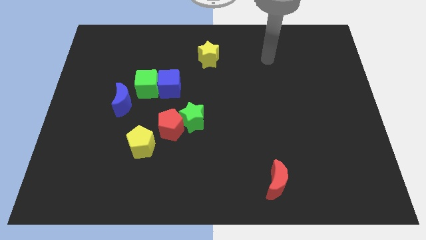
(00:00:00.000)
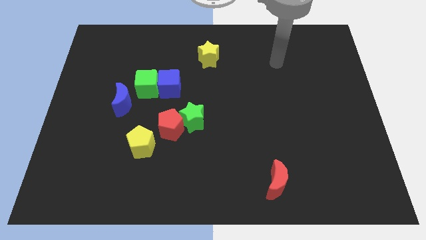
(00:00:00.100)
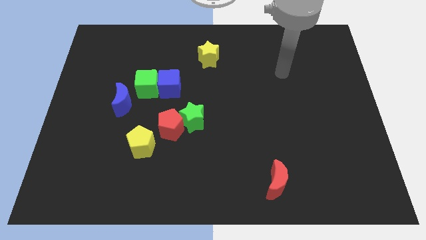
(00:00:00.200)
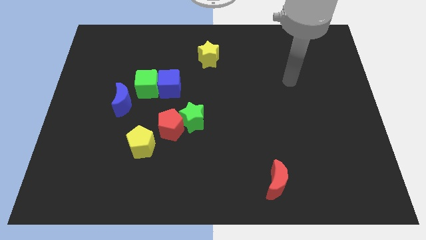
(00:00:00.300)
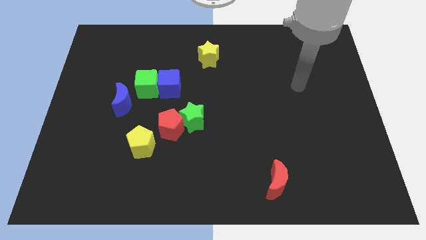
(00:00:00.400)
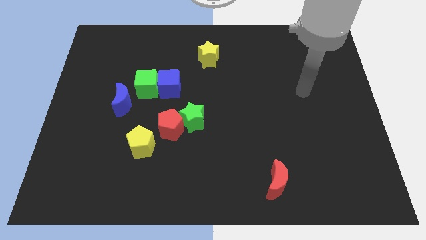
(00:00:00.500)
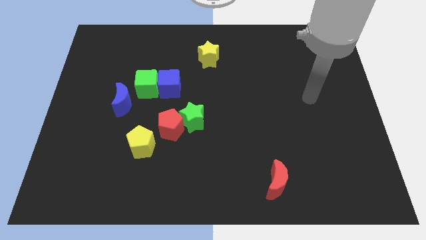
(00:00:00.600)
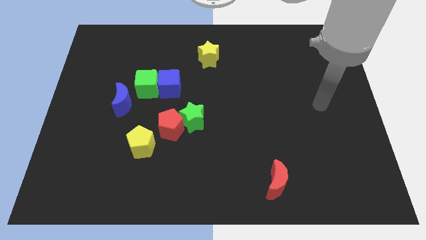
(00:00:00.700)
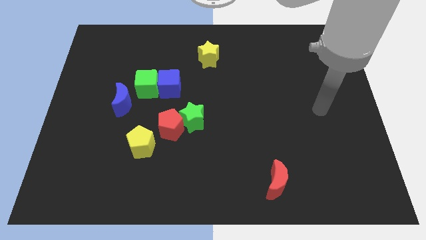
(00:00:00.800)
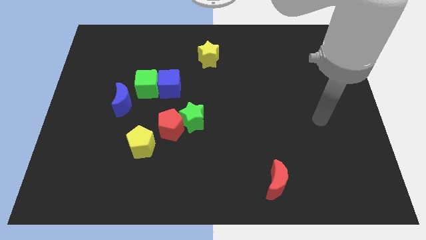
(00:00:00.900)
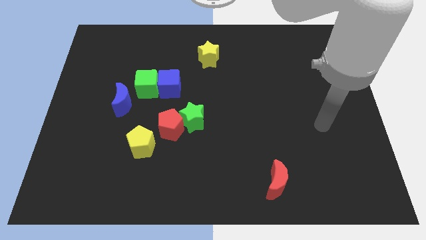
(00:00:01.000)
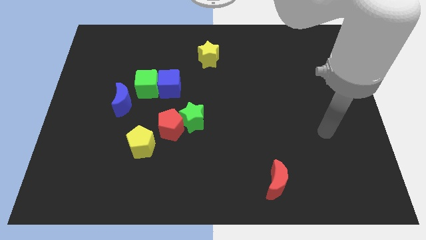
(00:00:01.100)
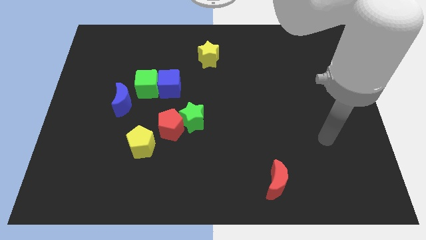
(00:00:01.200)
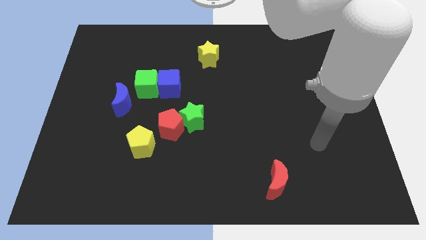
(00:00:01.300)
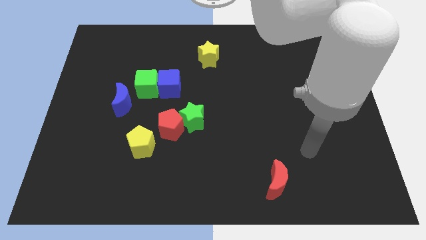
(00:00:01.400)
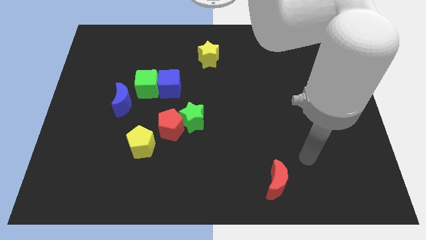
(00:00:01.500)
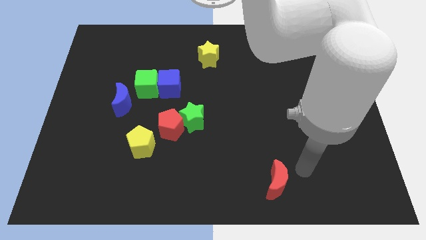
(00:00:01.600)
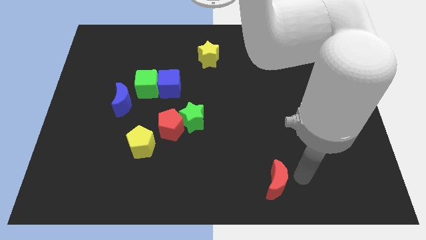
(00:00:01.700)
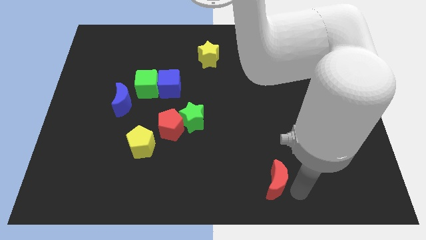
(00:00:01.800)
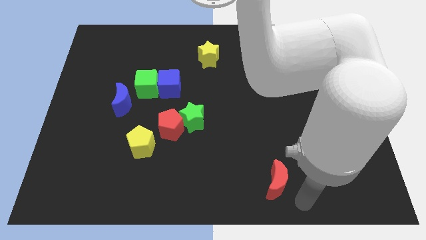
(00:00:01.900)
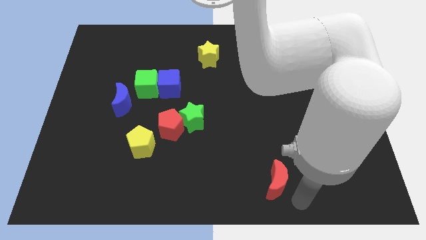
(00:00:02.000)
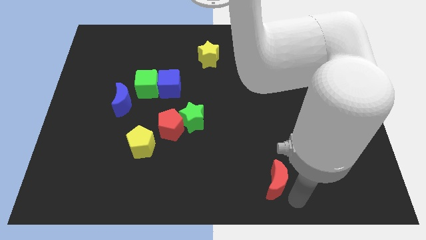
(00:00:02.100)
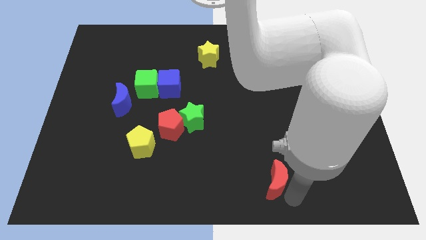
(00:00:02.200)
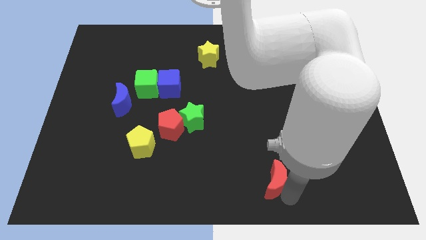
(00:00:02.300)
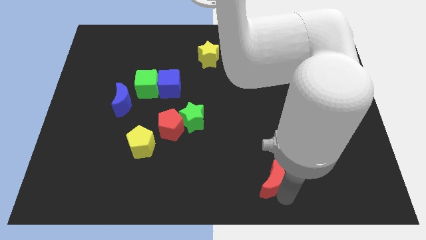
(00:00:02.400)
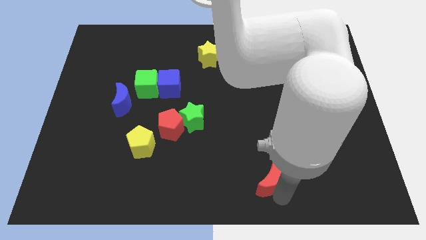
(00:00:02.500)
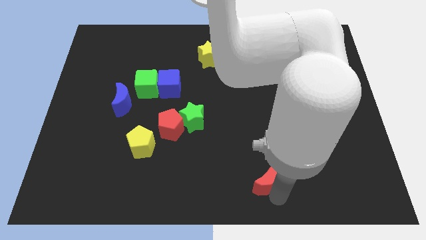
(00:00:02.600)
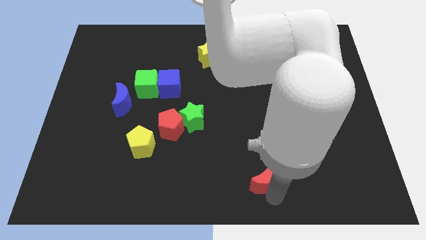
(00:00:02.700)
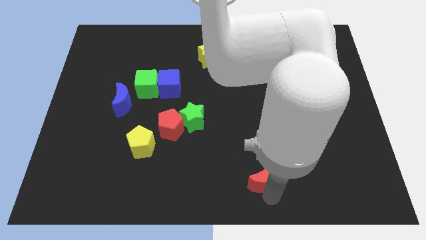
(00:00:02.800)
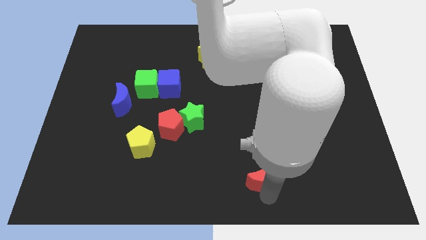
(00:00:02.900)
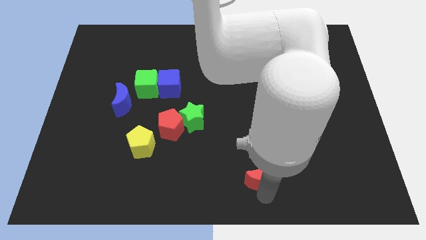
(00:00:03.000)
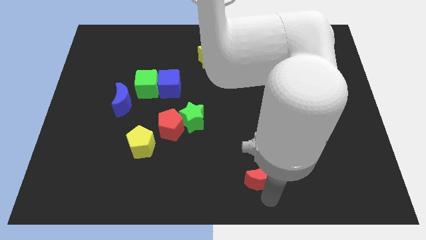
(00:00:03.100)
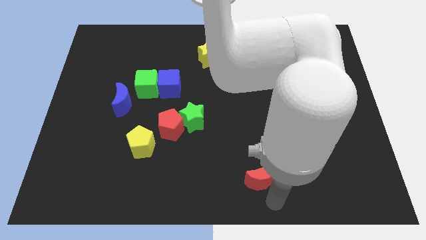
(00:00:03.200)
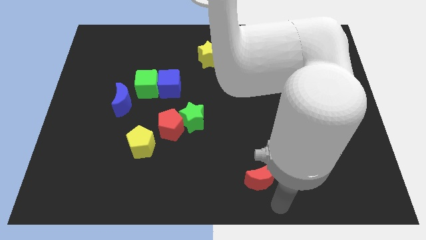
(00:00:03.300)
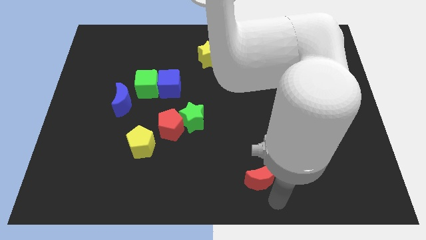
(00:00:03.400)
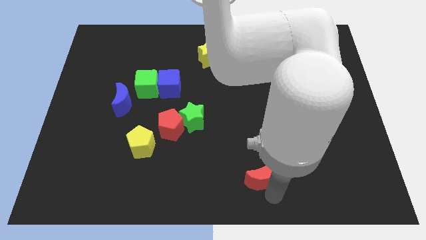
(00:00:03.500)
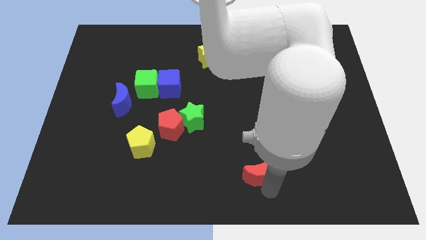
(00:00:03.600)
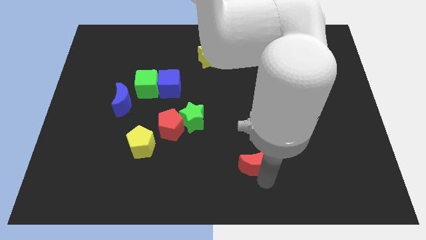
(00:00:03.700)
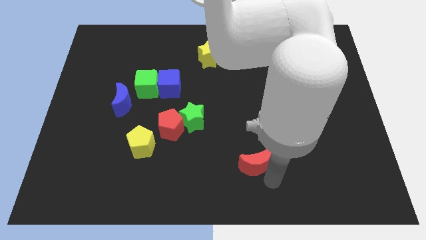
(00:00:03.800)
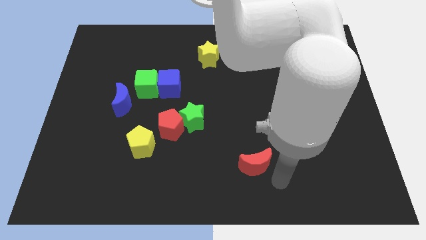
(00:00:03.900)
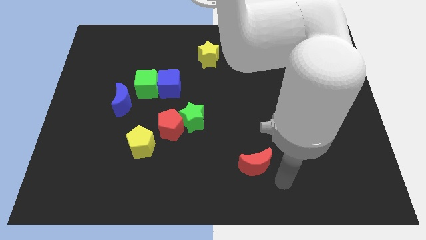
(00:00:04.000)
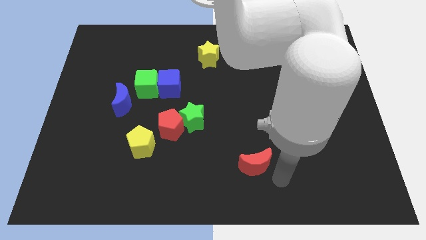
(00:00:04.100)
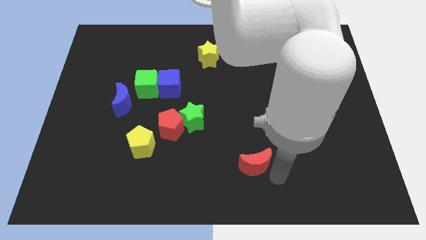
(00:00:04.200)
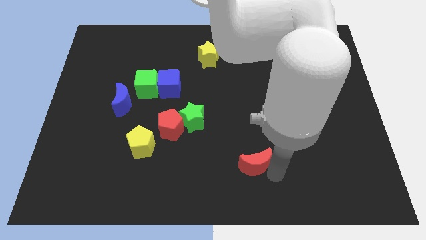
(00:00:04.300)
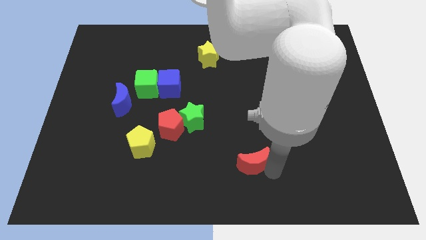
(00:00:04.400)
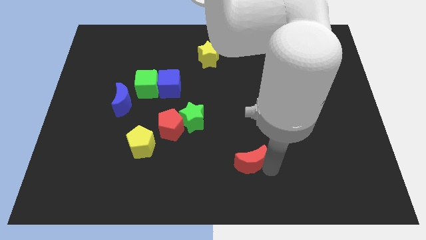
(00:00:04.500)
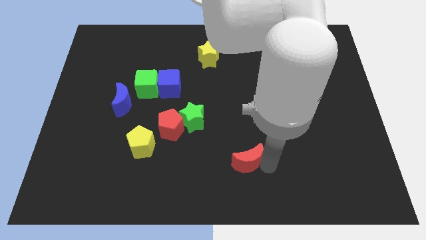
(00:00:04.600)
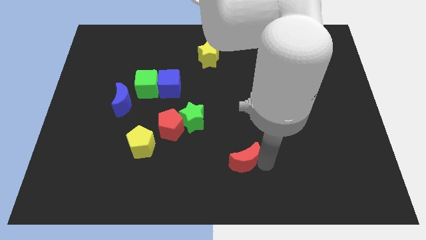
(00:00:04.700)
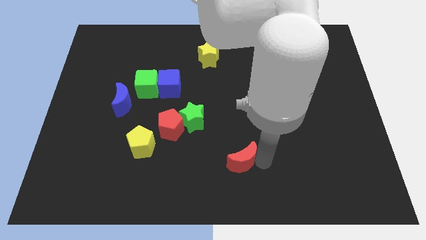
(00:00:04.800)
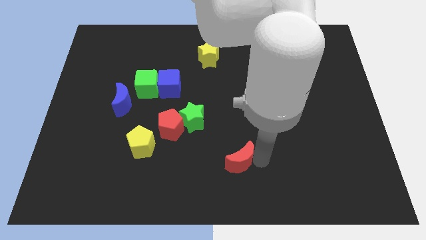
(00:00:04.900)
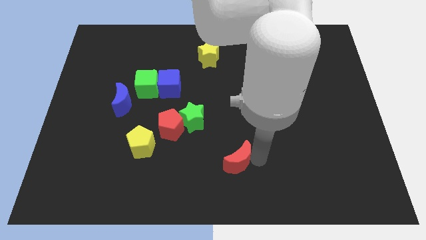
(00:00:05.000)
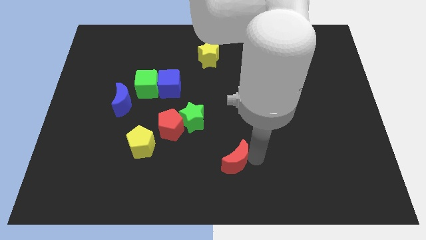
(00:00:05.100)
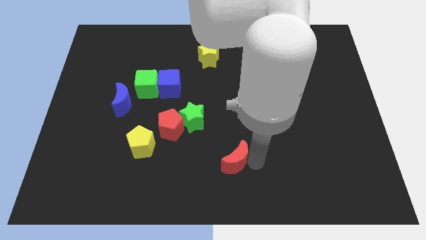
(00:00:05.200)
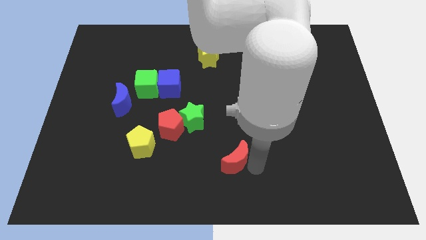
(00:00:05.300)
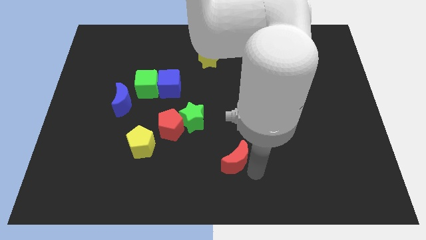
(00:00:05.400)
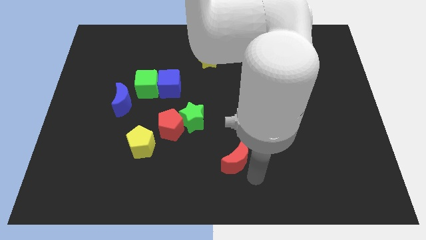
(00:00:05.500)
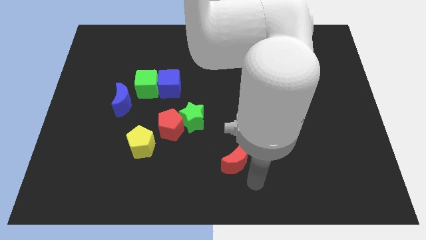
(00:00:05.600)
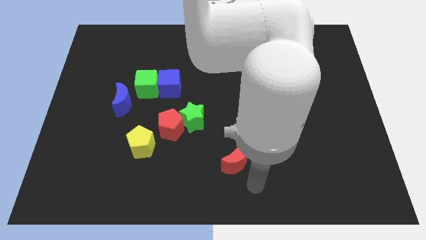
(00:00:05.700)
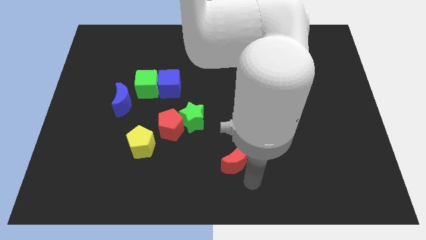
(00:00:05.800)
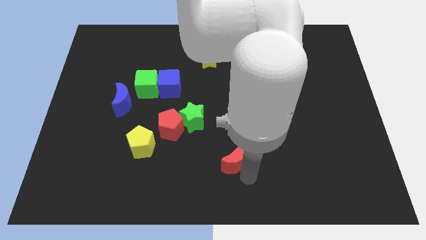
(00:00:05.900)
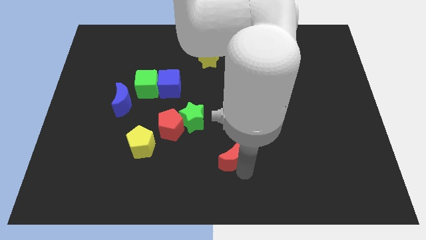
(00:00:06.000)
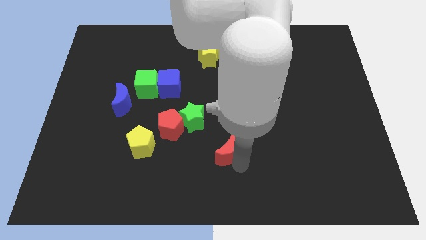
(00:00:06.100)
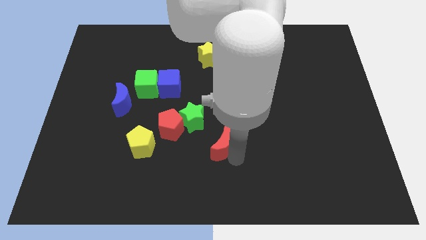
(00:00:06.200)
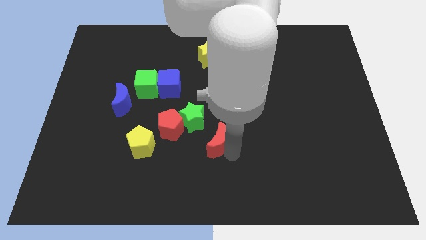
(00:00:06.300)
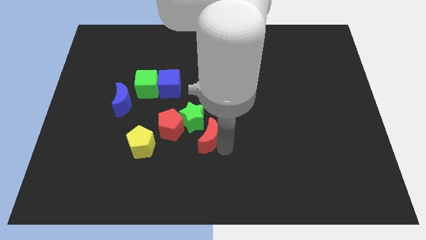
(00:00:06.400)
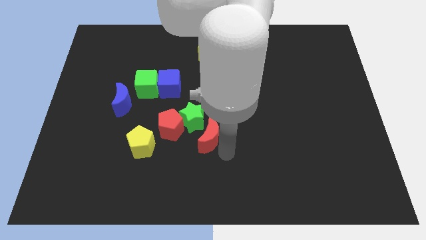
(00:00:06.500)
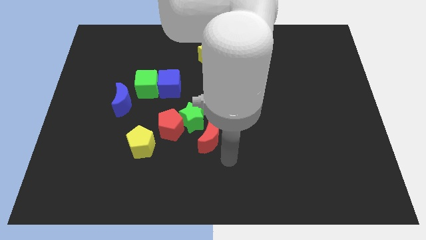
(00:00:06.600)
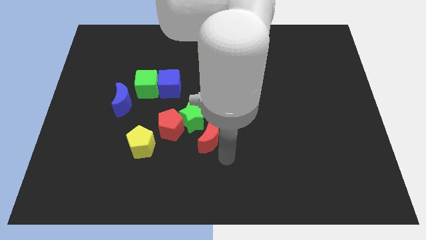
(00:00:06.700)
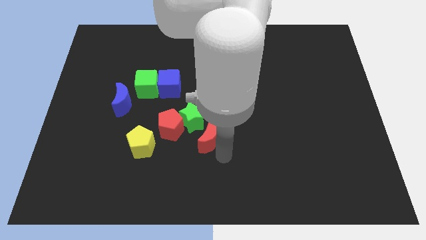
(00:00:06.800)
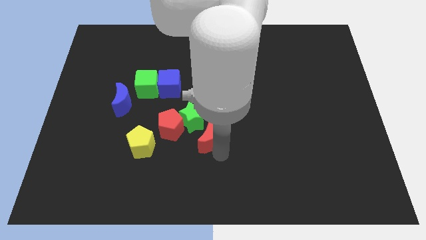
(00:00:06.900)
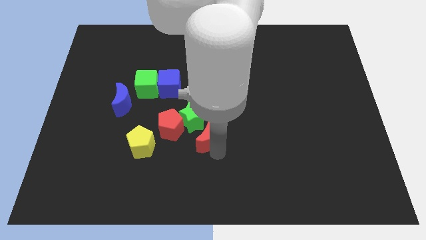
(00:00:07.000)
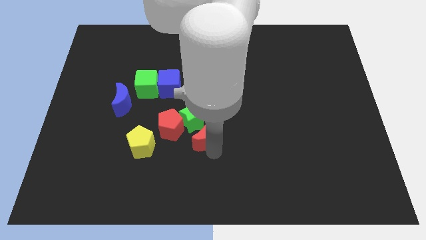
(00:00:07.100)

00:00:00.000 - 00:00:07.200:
move the red moon close to the green star

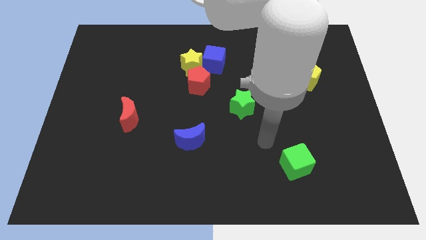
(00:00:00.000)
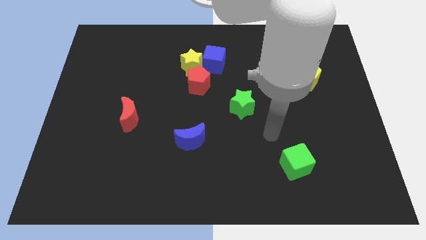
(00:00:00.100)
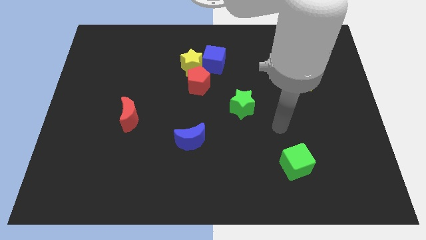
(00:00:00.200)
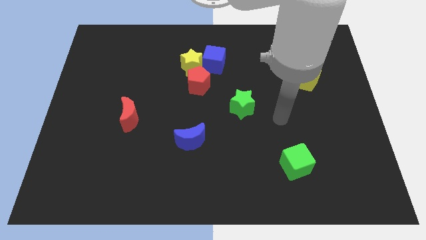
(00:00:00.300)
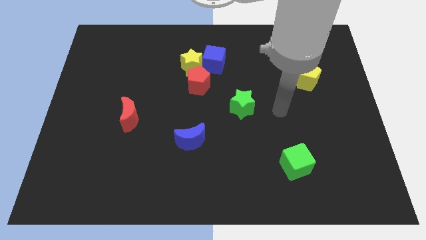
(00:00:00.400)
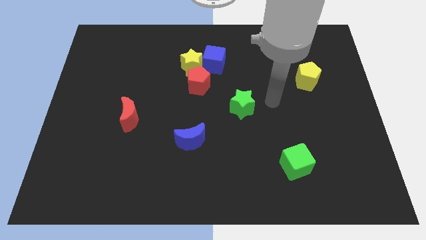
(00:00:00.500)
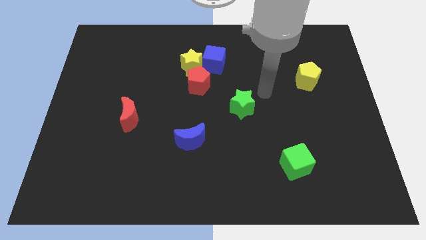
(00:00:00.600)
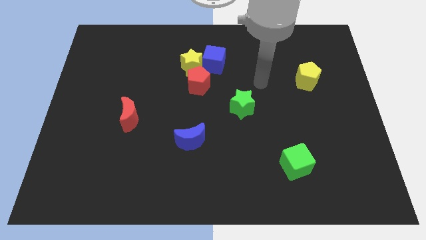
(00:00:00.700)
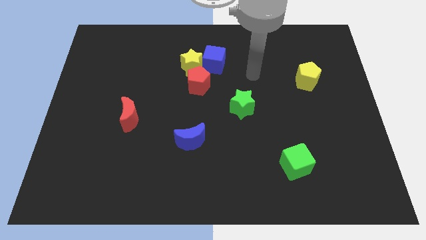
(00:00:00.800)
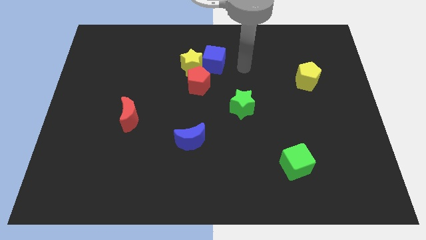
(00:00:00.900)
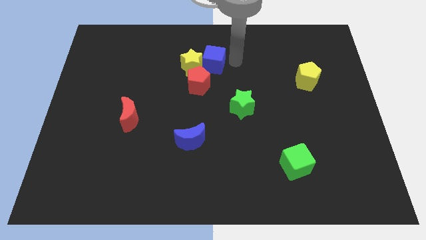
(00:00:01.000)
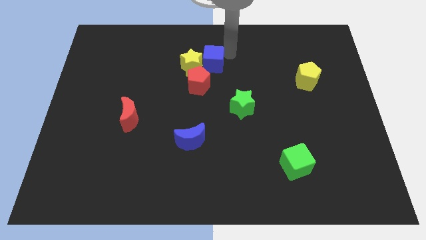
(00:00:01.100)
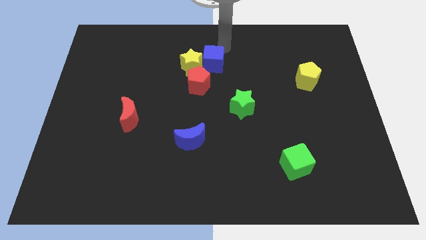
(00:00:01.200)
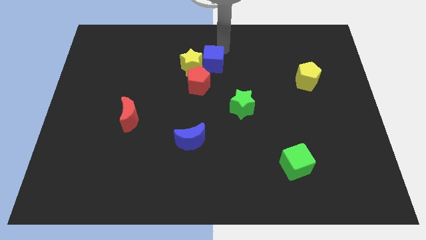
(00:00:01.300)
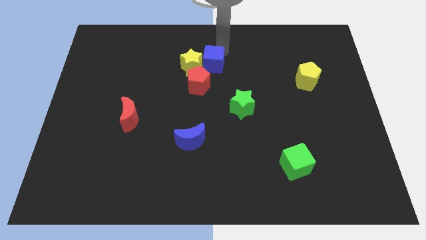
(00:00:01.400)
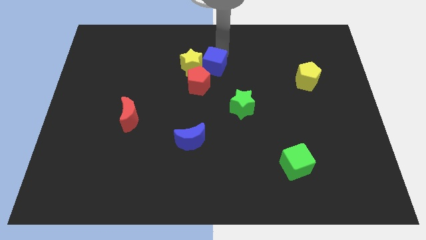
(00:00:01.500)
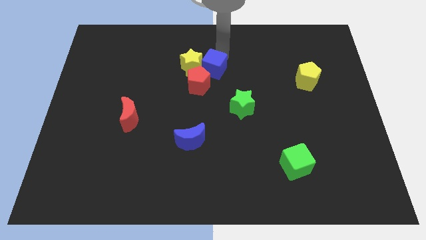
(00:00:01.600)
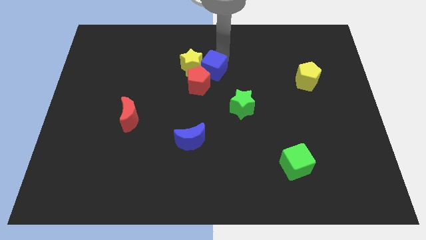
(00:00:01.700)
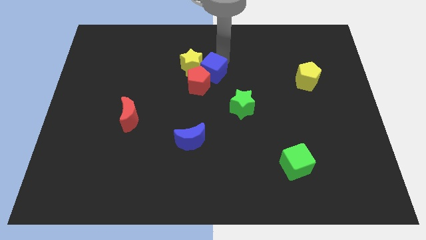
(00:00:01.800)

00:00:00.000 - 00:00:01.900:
slide the blue cube next to the red pentagon
